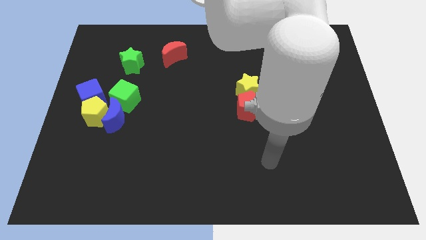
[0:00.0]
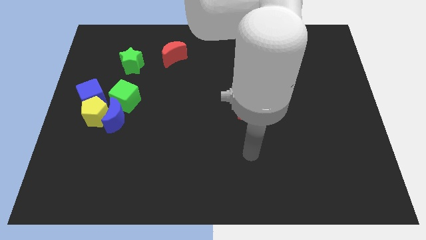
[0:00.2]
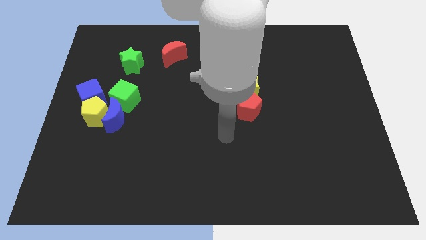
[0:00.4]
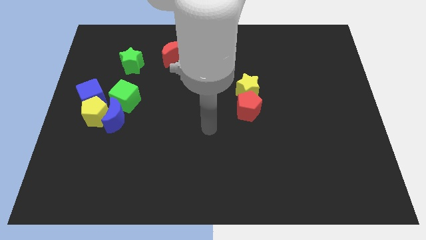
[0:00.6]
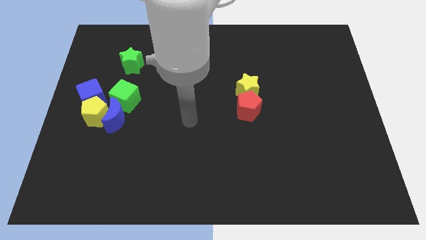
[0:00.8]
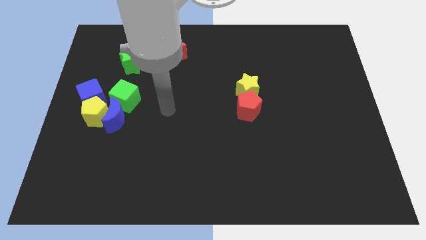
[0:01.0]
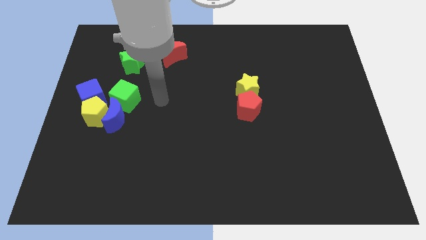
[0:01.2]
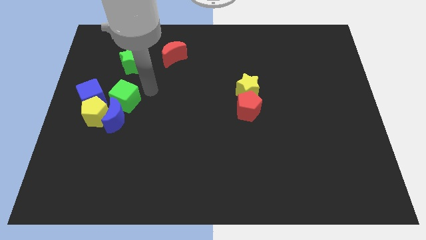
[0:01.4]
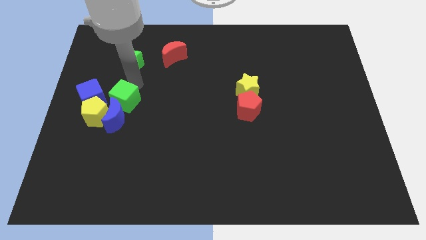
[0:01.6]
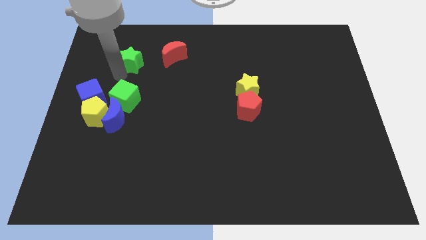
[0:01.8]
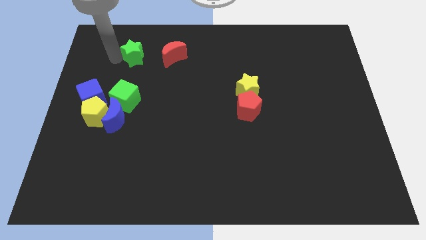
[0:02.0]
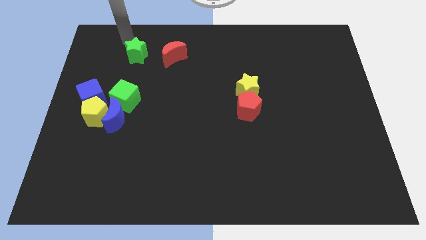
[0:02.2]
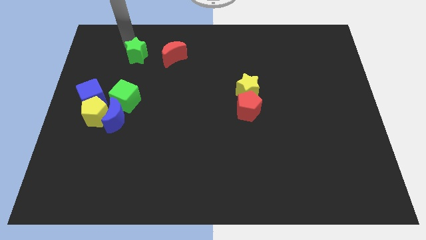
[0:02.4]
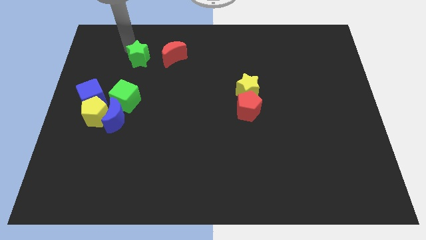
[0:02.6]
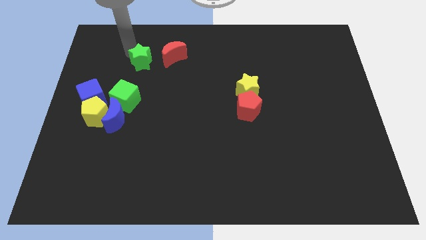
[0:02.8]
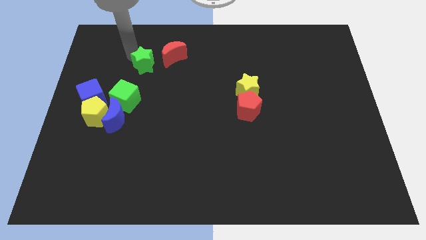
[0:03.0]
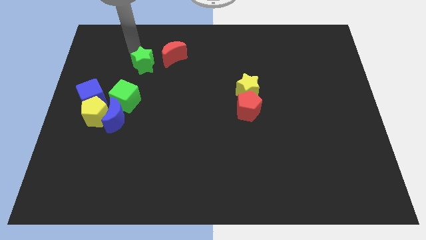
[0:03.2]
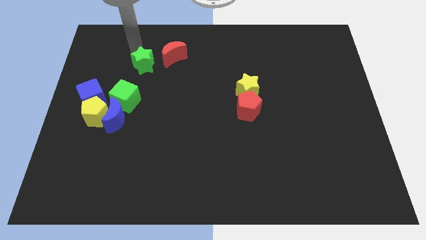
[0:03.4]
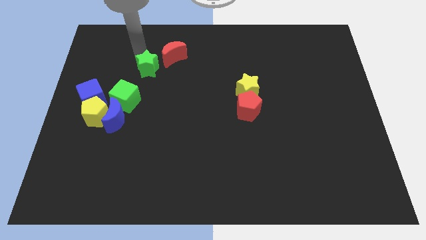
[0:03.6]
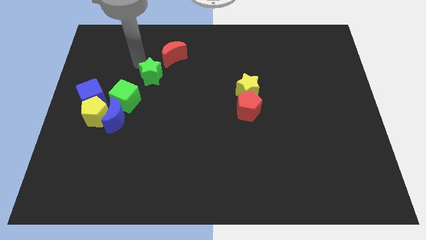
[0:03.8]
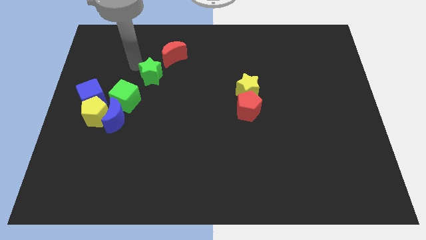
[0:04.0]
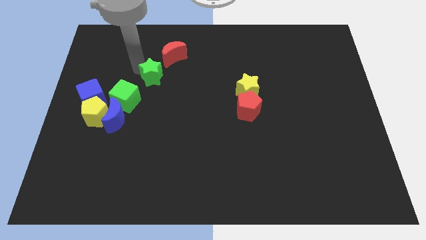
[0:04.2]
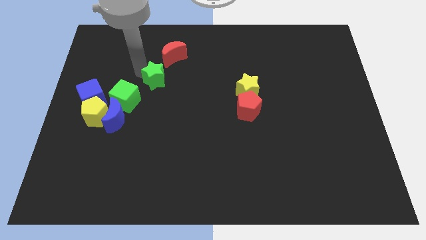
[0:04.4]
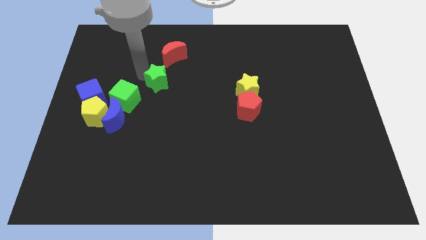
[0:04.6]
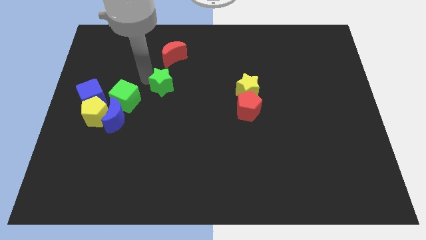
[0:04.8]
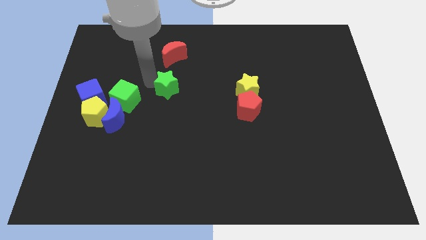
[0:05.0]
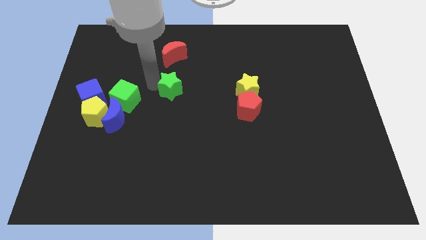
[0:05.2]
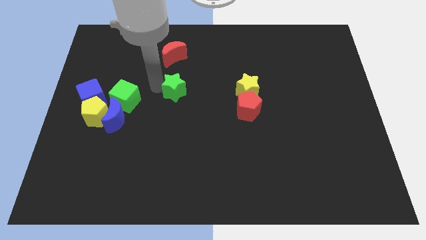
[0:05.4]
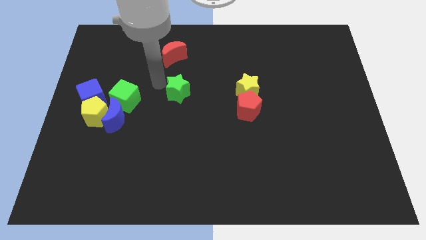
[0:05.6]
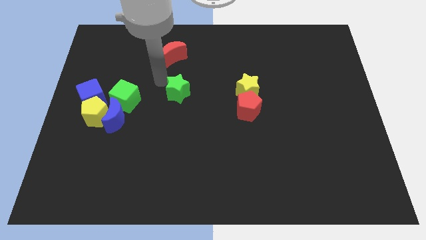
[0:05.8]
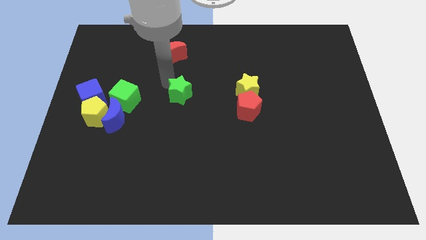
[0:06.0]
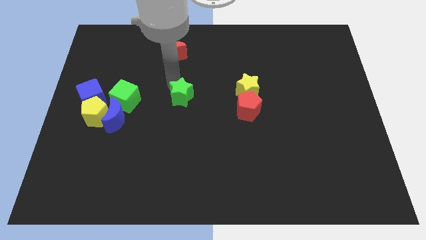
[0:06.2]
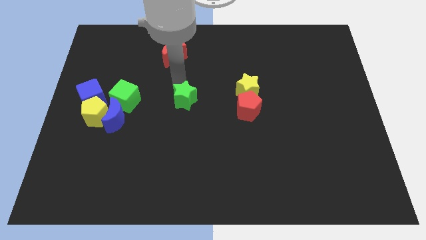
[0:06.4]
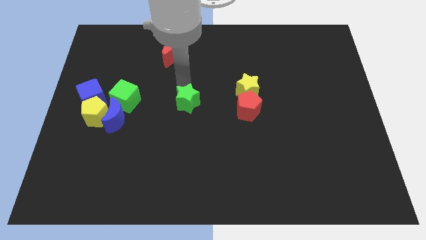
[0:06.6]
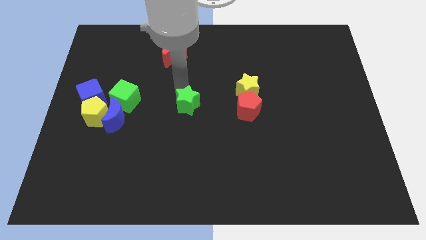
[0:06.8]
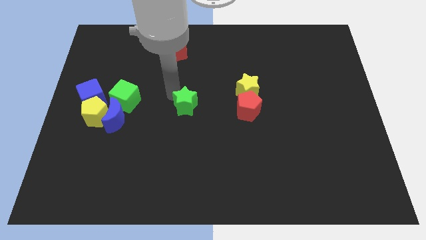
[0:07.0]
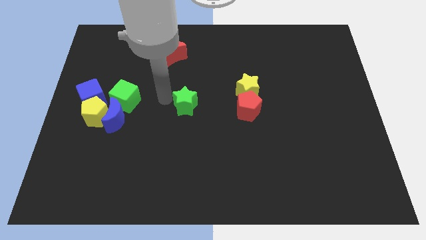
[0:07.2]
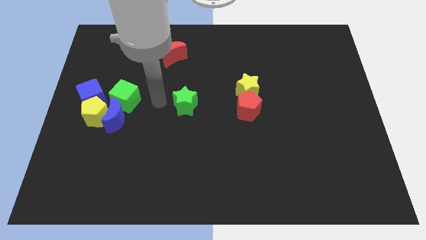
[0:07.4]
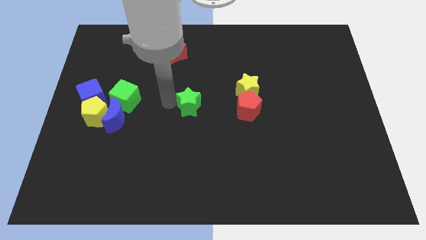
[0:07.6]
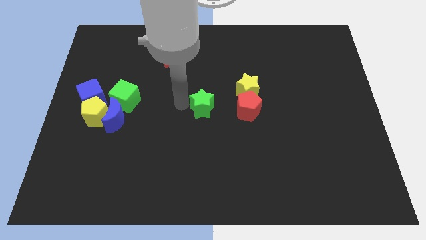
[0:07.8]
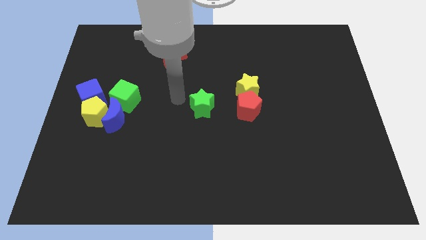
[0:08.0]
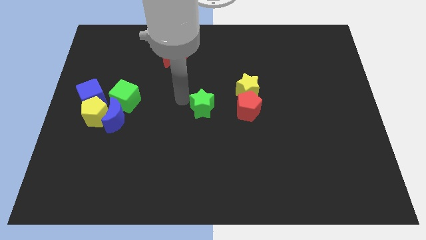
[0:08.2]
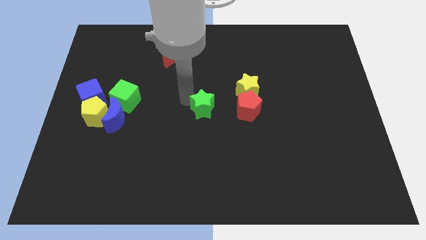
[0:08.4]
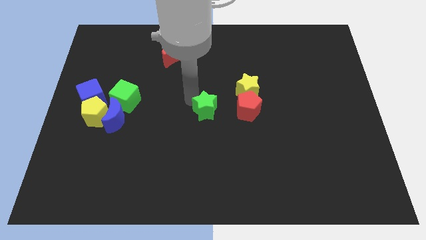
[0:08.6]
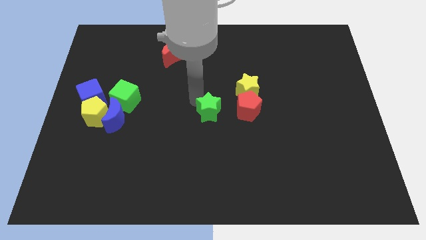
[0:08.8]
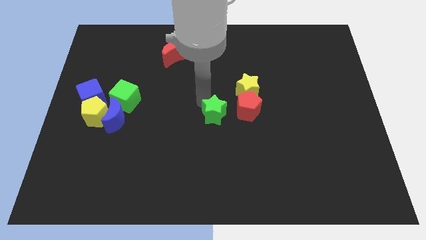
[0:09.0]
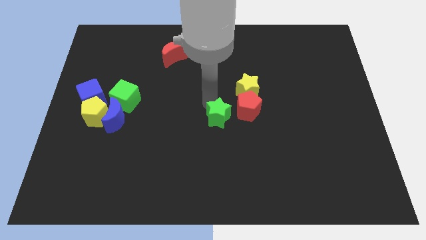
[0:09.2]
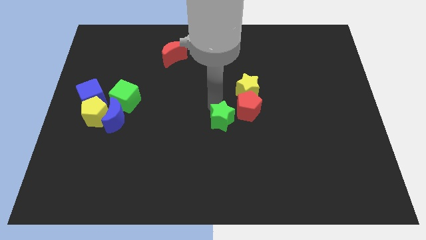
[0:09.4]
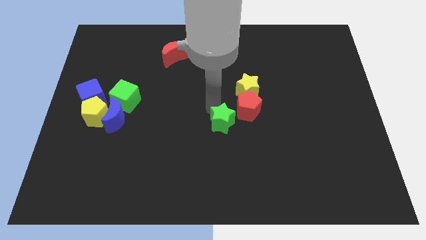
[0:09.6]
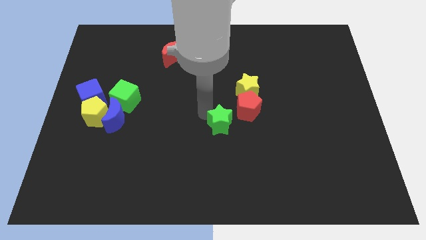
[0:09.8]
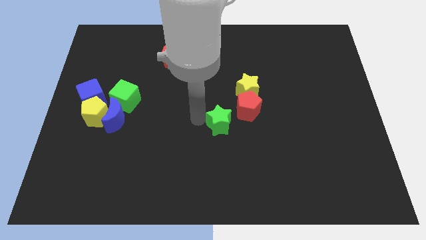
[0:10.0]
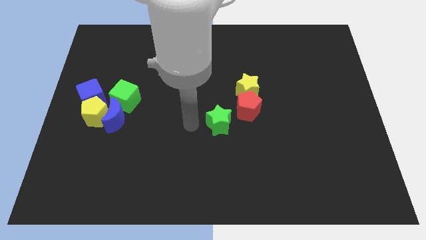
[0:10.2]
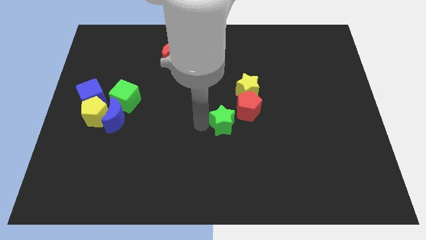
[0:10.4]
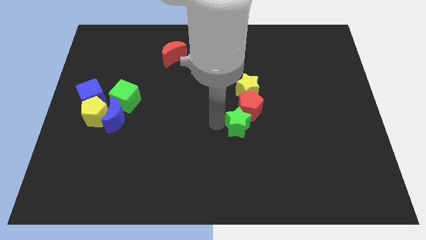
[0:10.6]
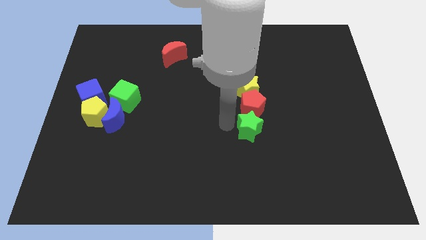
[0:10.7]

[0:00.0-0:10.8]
push the green star to the bottom right side of the red pentagon

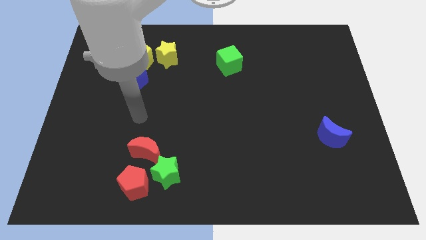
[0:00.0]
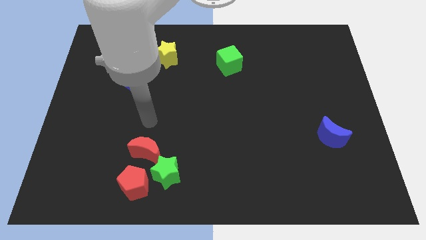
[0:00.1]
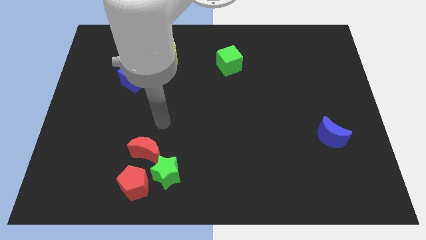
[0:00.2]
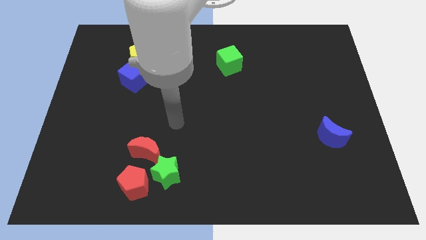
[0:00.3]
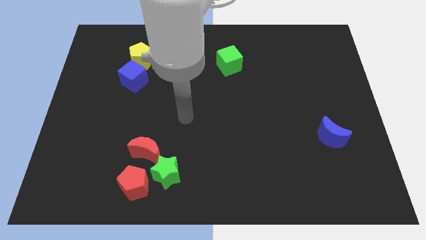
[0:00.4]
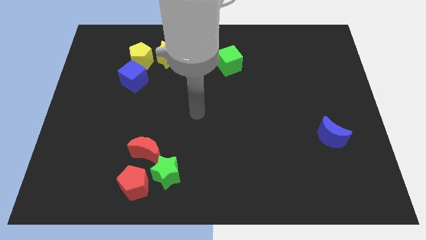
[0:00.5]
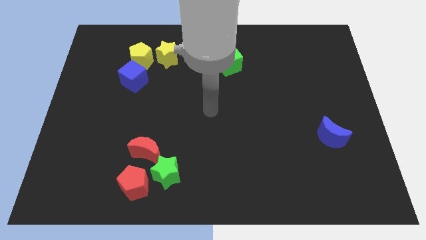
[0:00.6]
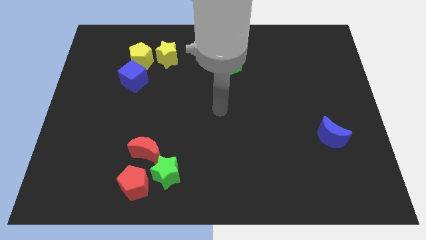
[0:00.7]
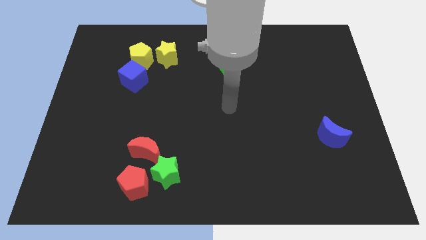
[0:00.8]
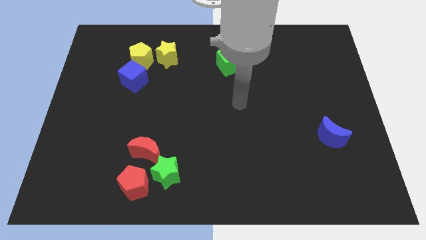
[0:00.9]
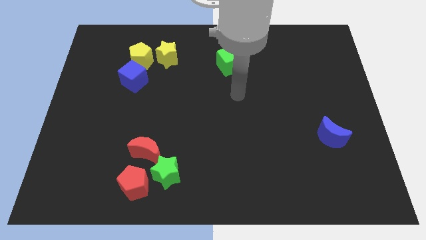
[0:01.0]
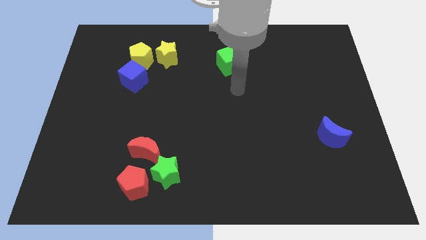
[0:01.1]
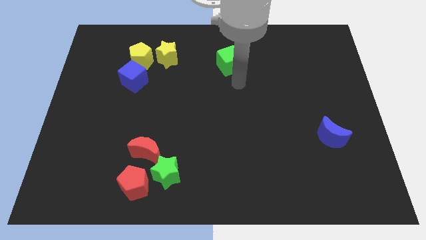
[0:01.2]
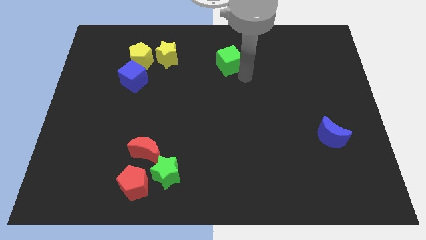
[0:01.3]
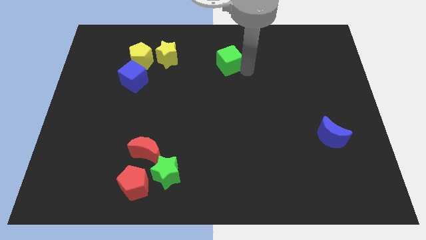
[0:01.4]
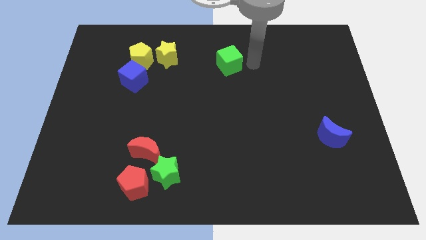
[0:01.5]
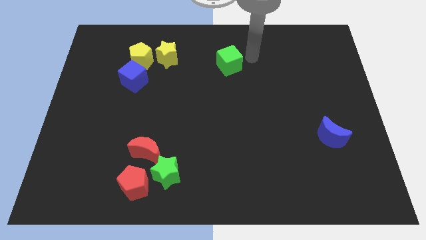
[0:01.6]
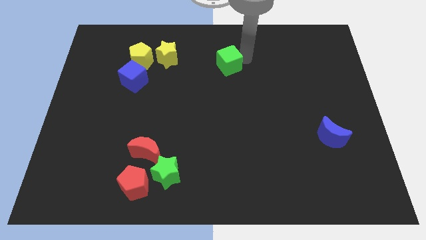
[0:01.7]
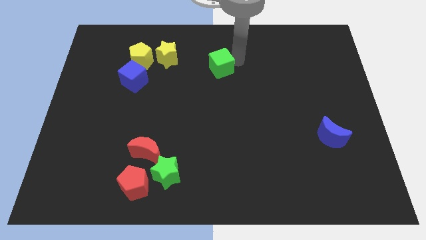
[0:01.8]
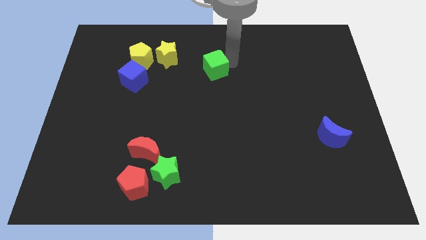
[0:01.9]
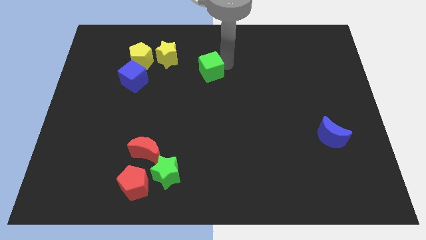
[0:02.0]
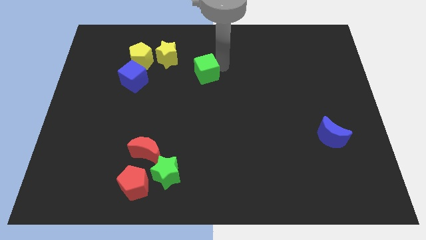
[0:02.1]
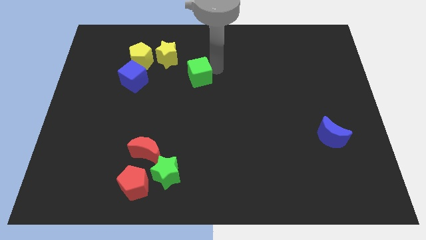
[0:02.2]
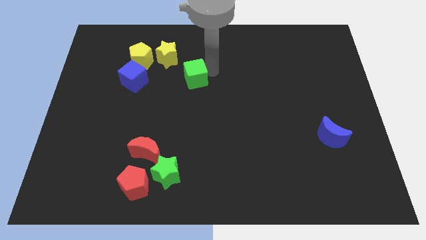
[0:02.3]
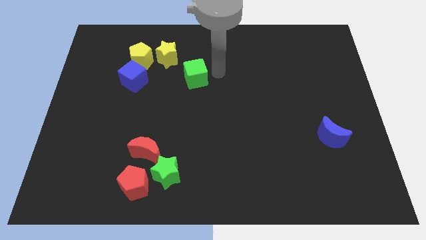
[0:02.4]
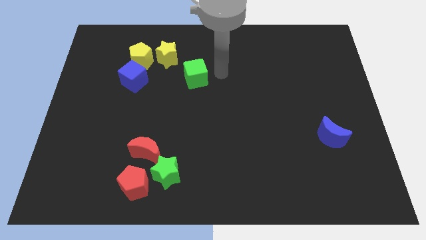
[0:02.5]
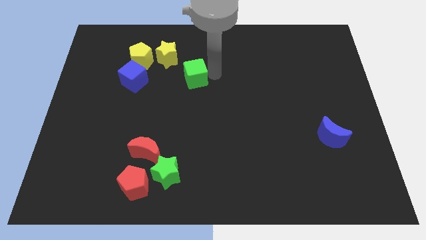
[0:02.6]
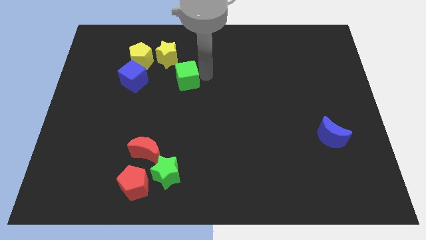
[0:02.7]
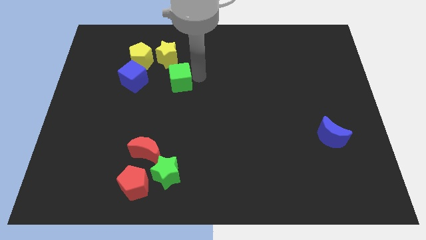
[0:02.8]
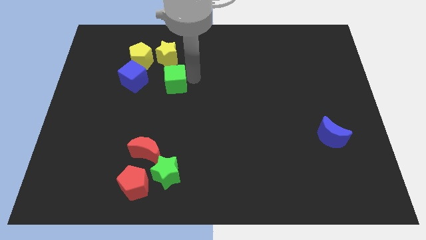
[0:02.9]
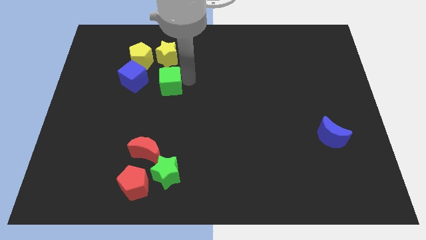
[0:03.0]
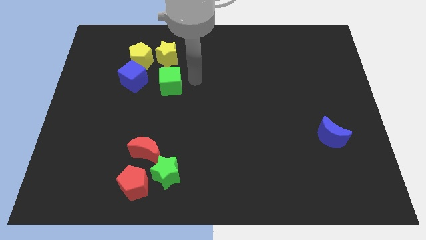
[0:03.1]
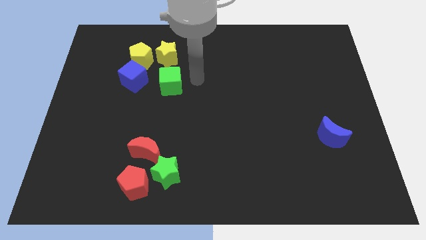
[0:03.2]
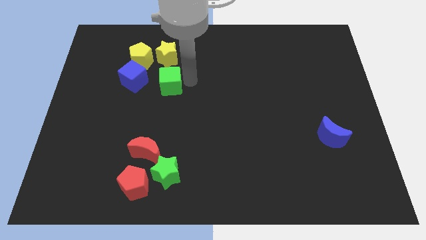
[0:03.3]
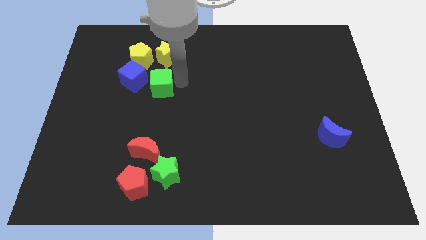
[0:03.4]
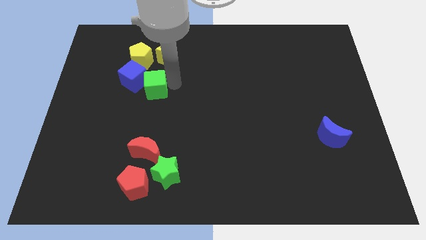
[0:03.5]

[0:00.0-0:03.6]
slide the green cube to the bottom side of the yellow pentagon
